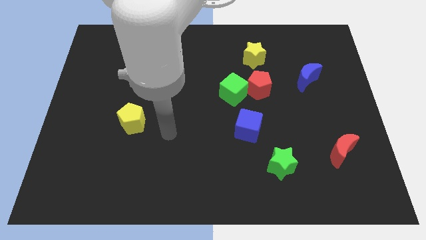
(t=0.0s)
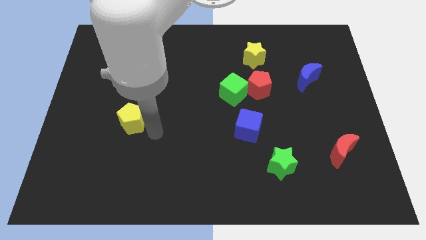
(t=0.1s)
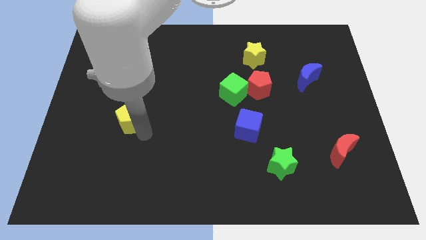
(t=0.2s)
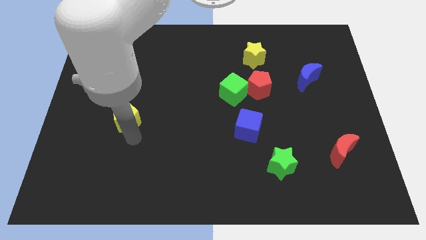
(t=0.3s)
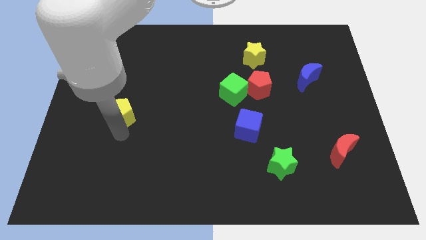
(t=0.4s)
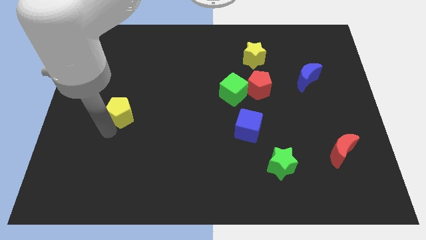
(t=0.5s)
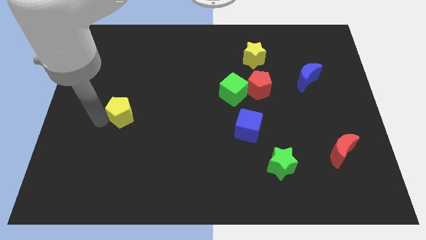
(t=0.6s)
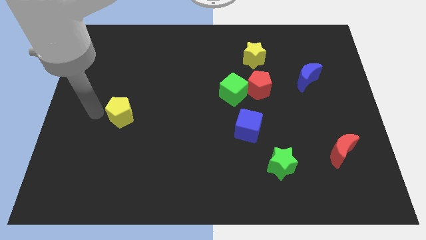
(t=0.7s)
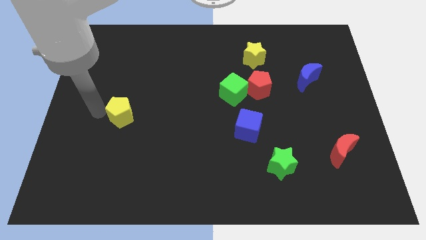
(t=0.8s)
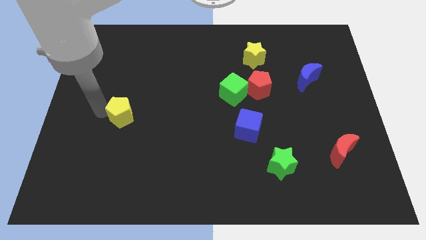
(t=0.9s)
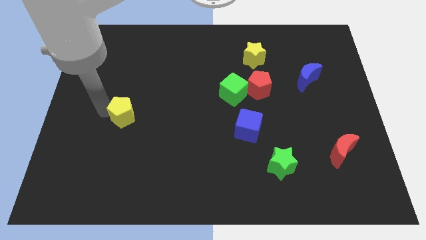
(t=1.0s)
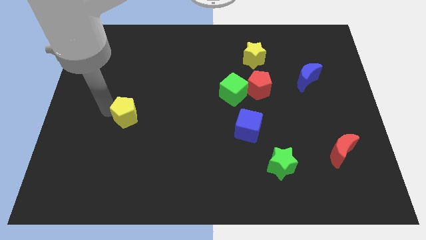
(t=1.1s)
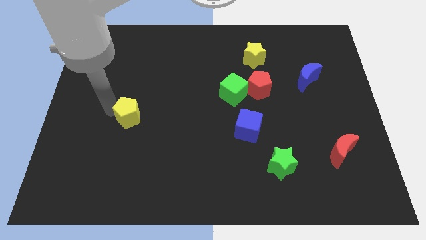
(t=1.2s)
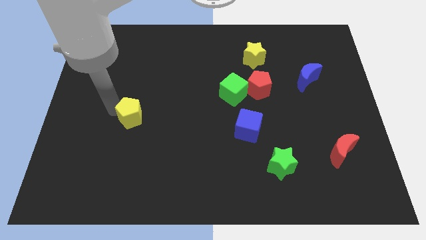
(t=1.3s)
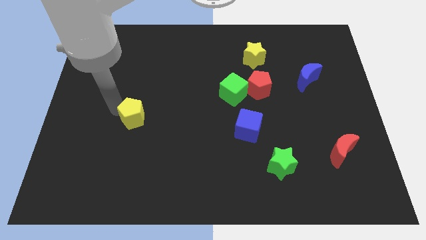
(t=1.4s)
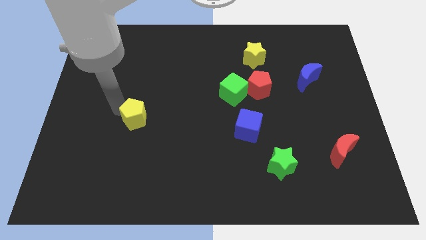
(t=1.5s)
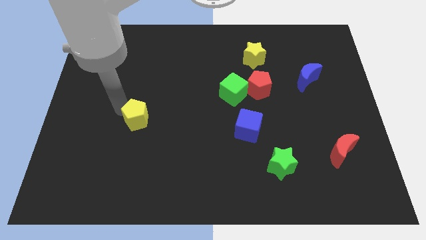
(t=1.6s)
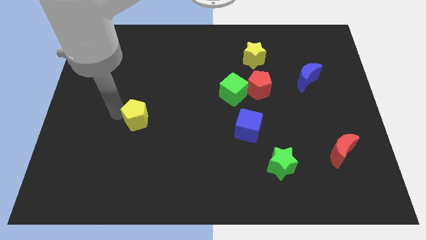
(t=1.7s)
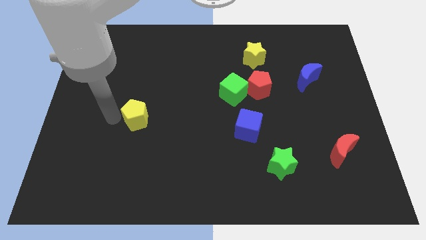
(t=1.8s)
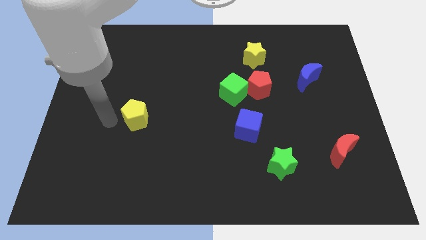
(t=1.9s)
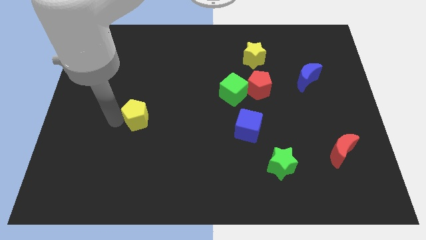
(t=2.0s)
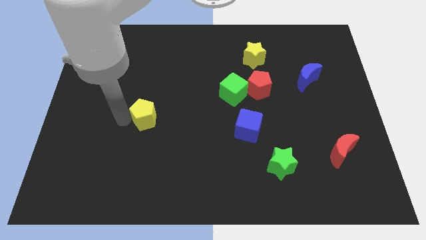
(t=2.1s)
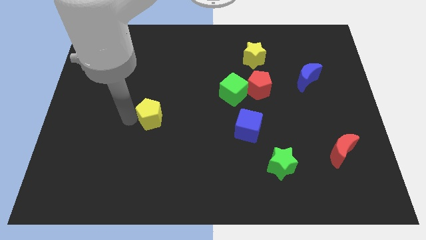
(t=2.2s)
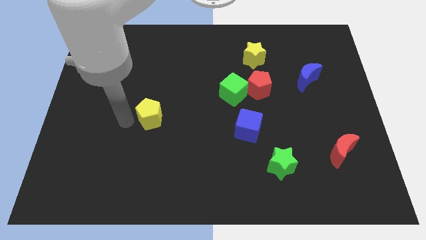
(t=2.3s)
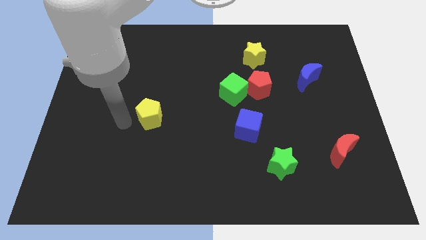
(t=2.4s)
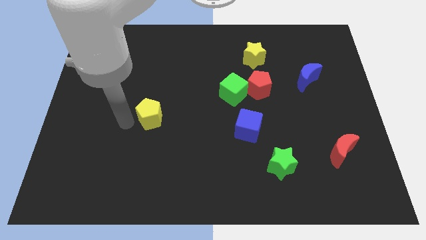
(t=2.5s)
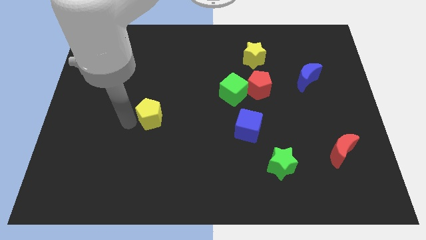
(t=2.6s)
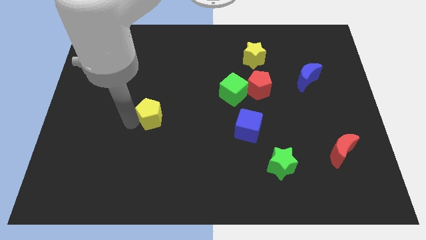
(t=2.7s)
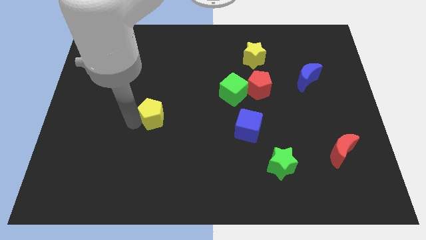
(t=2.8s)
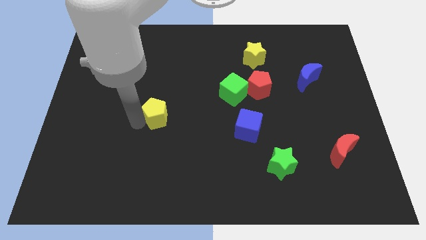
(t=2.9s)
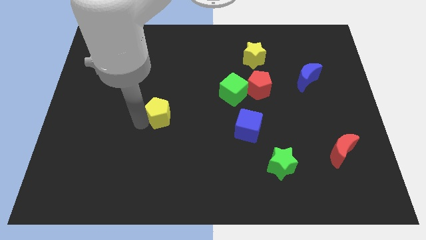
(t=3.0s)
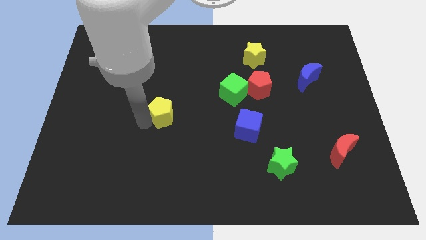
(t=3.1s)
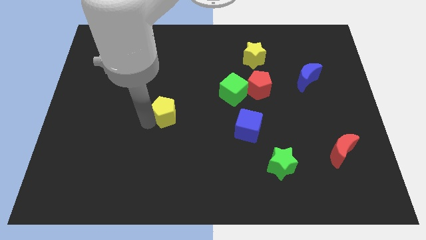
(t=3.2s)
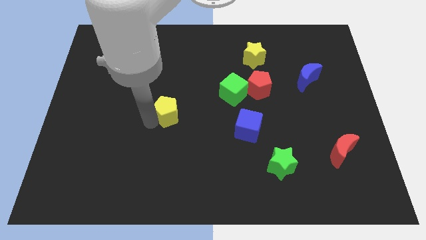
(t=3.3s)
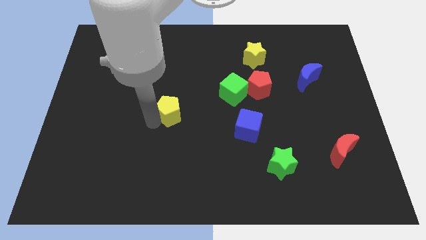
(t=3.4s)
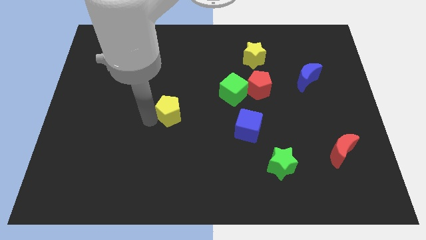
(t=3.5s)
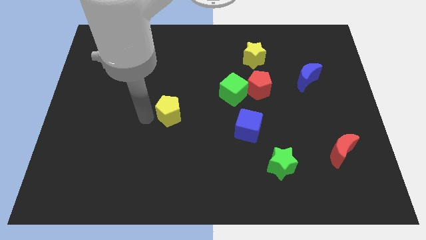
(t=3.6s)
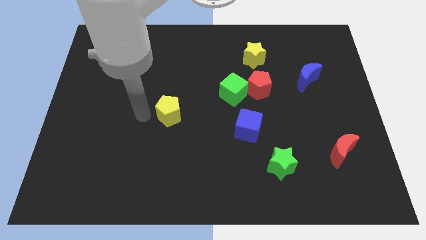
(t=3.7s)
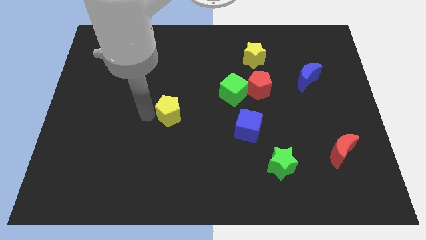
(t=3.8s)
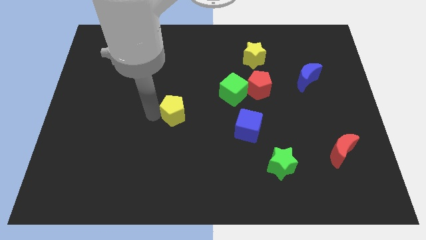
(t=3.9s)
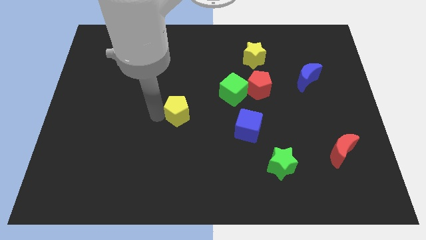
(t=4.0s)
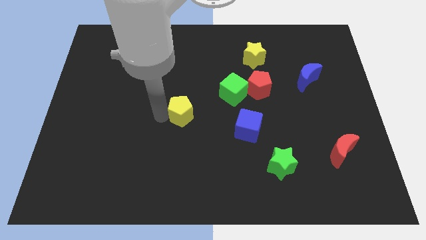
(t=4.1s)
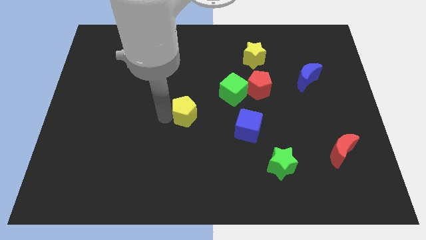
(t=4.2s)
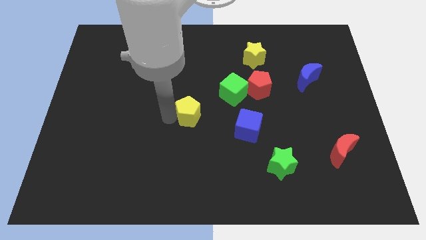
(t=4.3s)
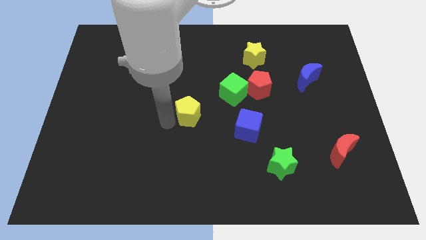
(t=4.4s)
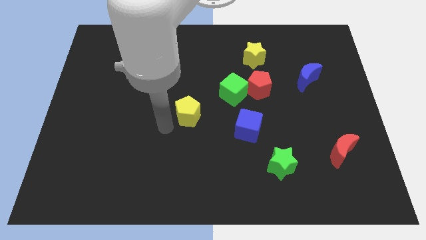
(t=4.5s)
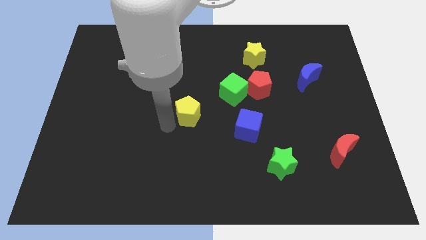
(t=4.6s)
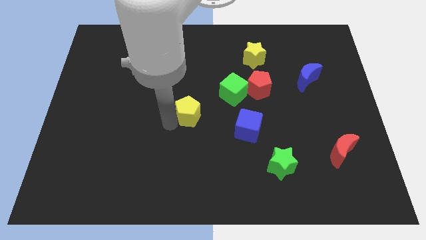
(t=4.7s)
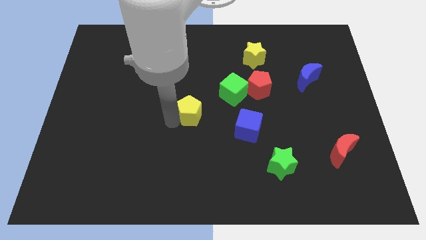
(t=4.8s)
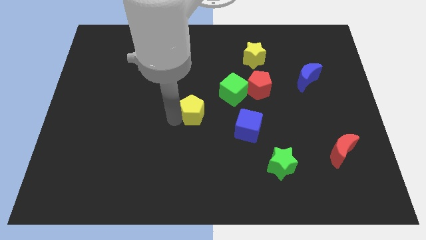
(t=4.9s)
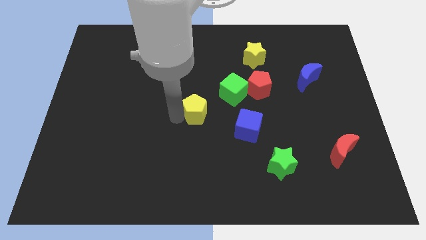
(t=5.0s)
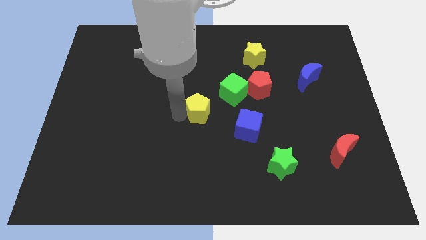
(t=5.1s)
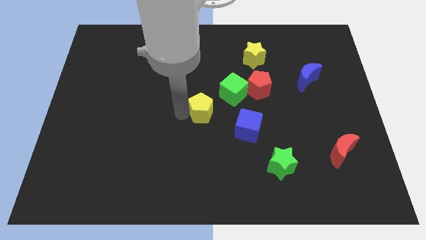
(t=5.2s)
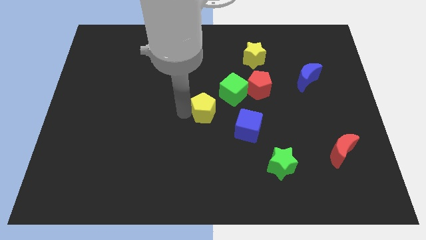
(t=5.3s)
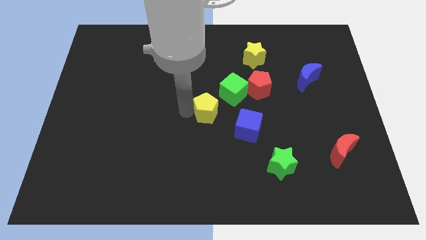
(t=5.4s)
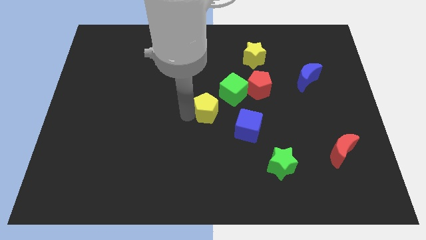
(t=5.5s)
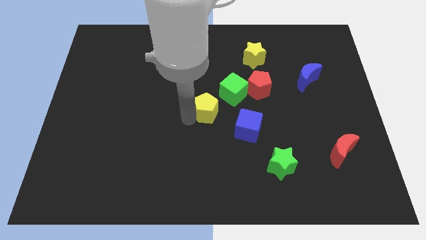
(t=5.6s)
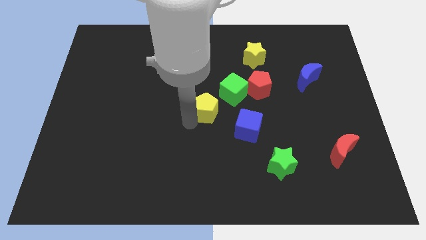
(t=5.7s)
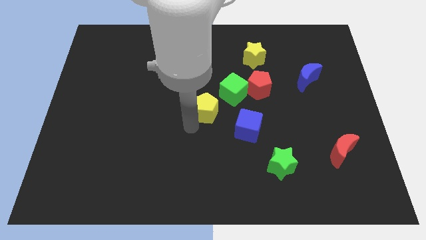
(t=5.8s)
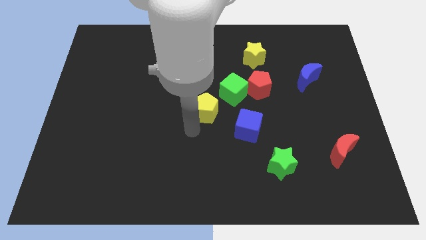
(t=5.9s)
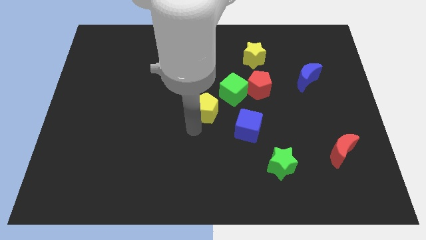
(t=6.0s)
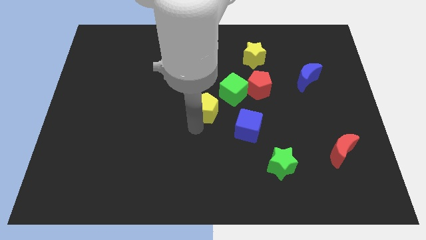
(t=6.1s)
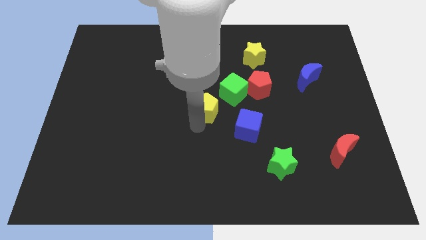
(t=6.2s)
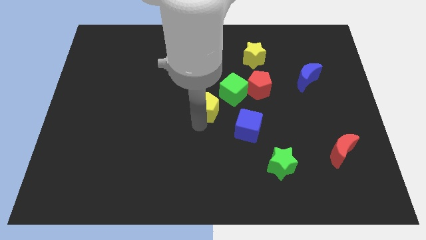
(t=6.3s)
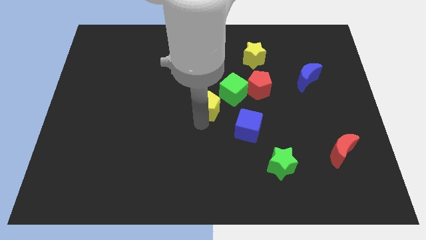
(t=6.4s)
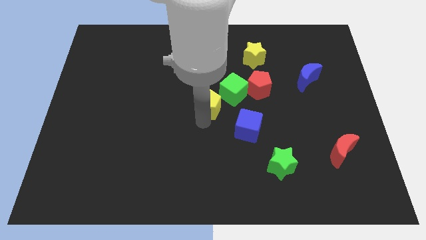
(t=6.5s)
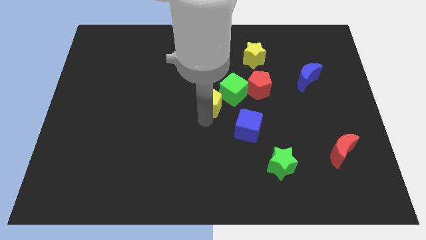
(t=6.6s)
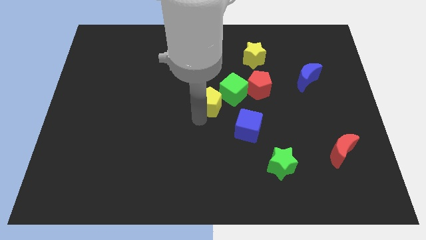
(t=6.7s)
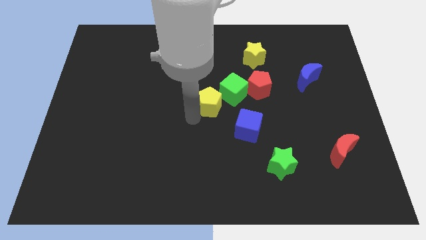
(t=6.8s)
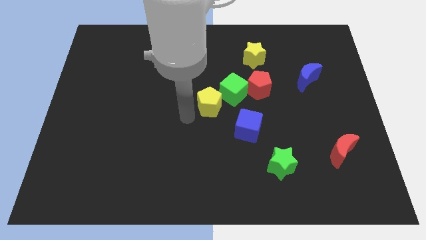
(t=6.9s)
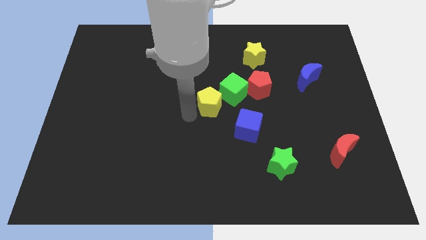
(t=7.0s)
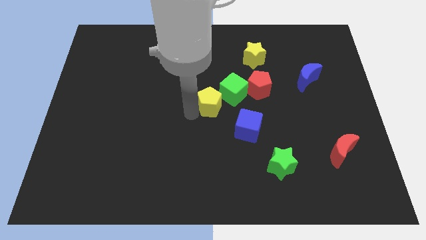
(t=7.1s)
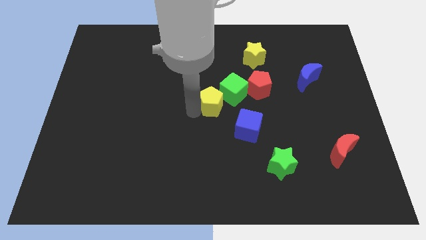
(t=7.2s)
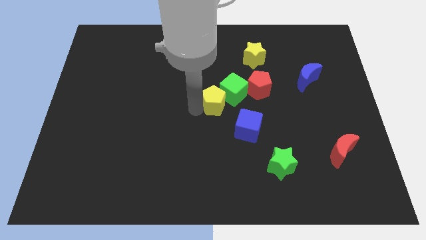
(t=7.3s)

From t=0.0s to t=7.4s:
put the yellow pentagon close to the green cube
